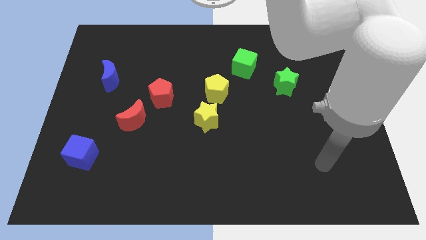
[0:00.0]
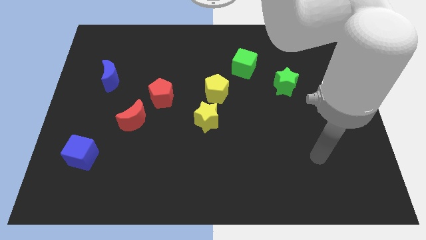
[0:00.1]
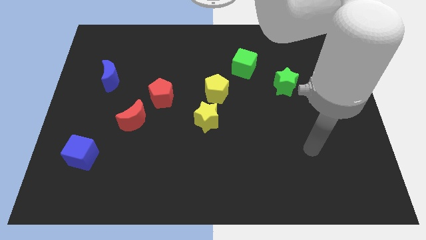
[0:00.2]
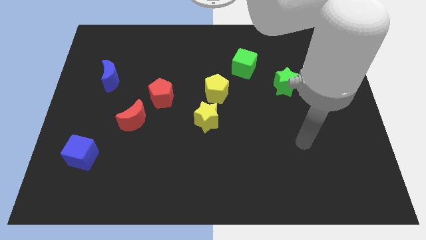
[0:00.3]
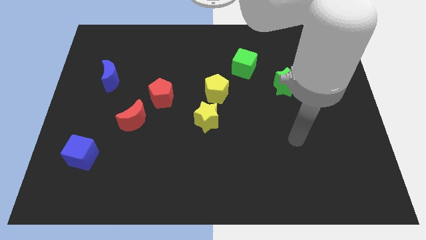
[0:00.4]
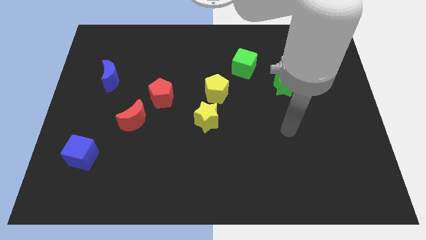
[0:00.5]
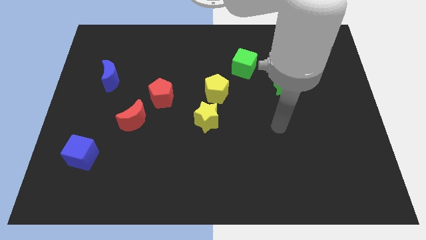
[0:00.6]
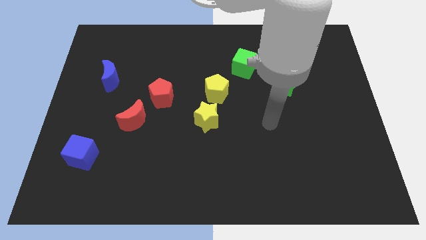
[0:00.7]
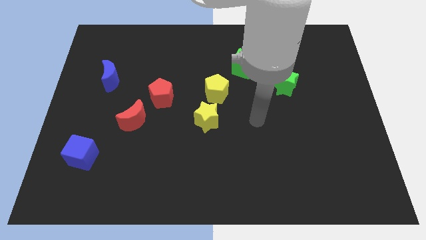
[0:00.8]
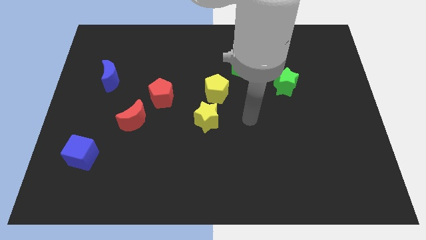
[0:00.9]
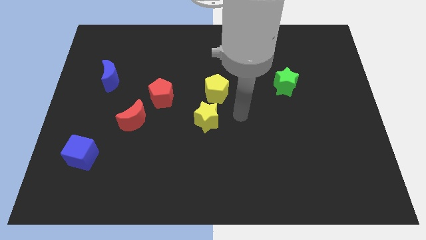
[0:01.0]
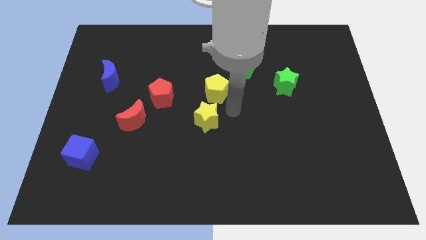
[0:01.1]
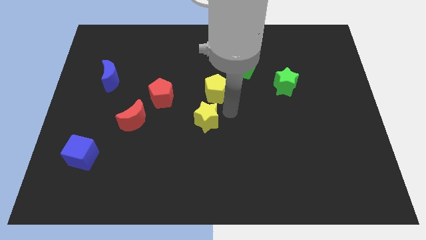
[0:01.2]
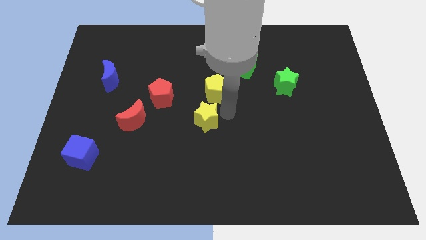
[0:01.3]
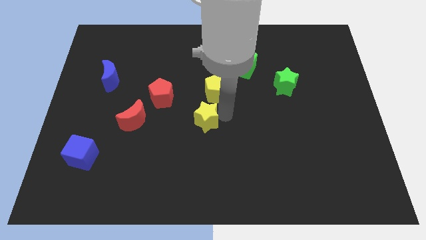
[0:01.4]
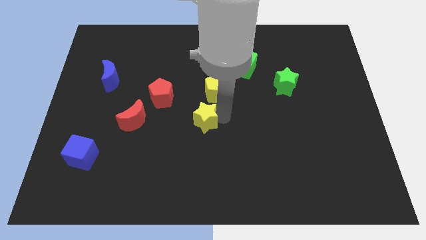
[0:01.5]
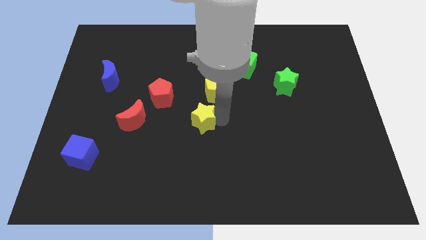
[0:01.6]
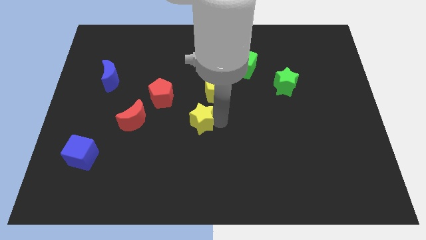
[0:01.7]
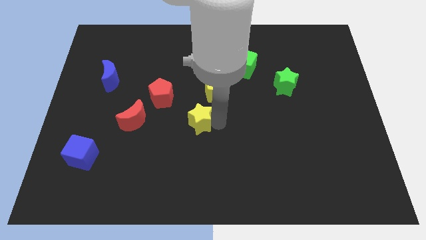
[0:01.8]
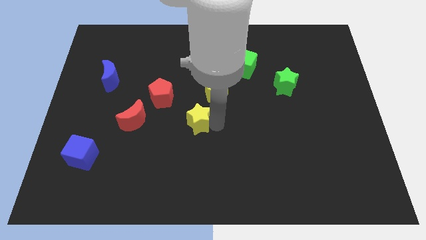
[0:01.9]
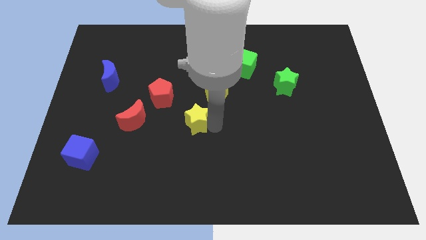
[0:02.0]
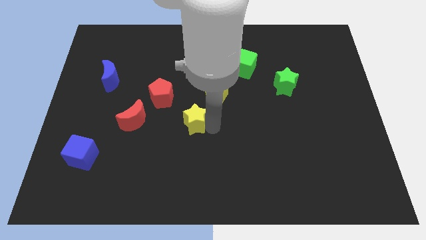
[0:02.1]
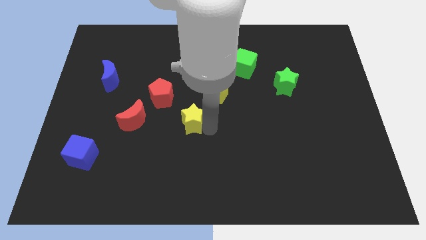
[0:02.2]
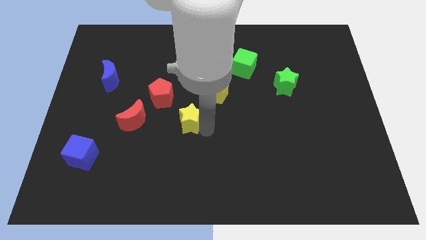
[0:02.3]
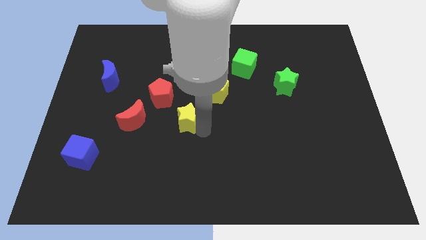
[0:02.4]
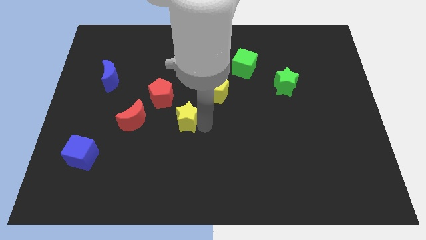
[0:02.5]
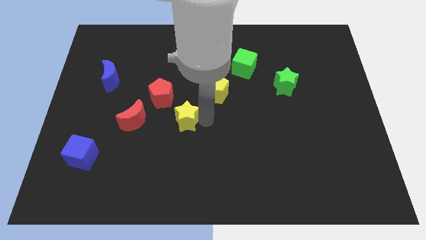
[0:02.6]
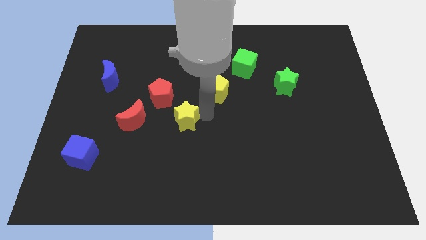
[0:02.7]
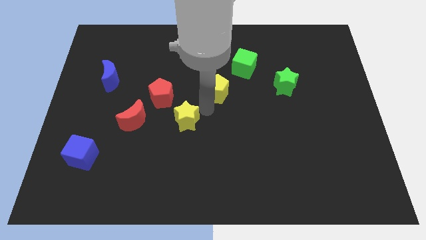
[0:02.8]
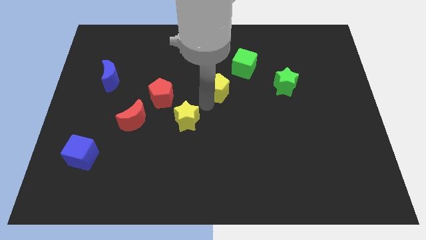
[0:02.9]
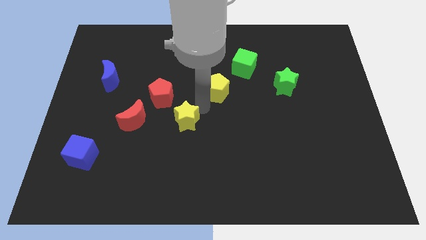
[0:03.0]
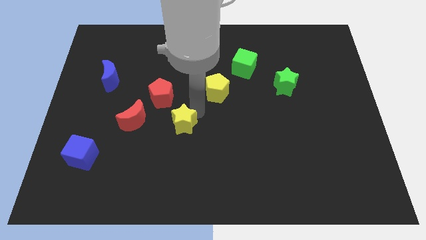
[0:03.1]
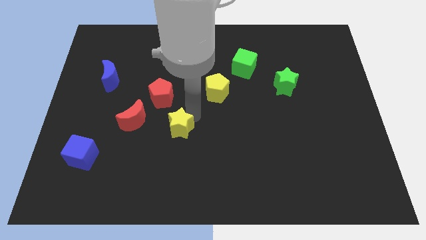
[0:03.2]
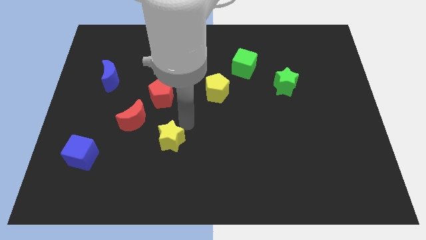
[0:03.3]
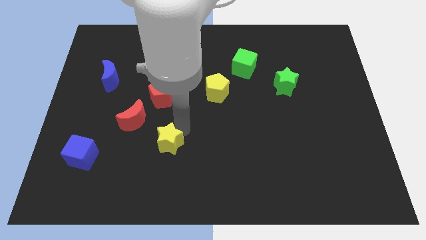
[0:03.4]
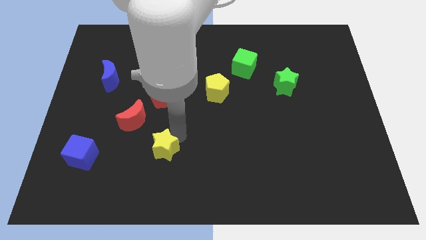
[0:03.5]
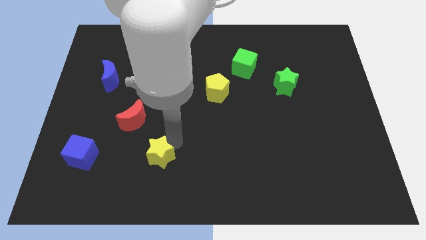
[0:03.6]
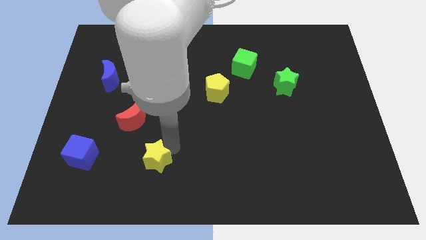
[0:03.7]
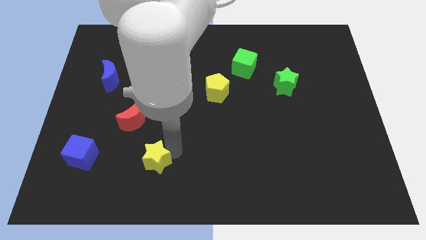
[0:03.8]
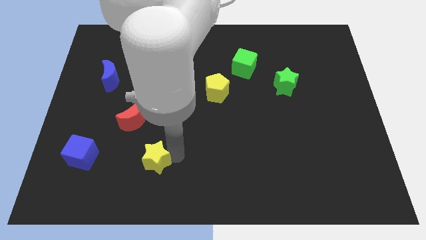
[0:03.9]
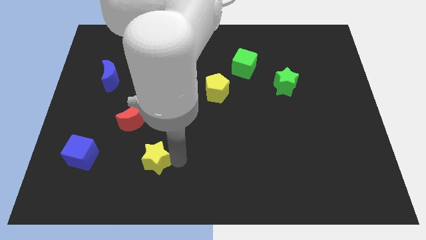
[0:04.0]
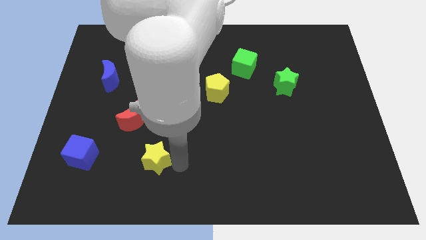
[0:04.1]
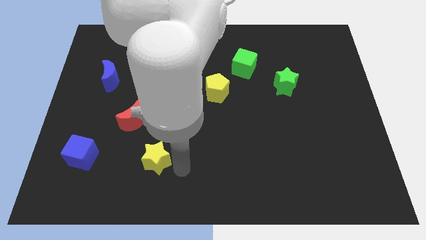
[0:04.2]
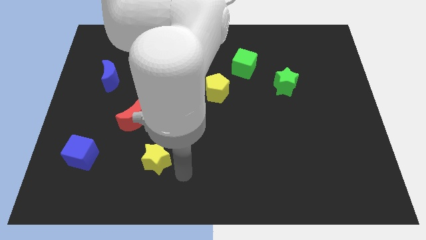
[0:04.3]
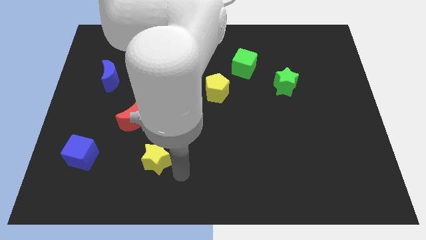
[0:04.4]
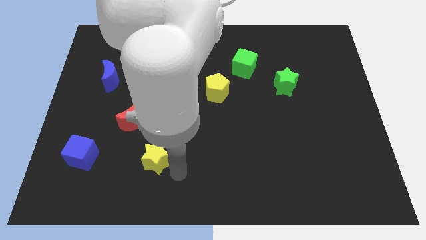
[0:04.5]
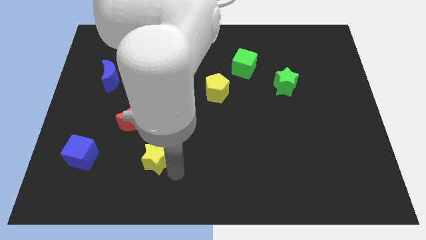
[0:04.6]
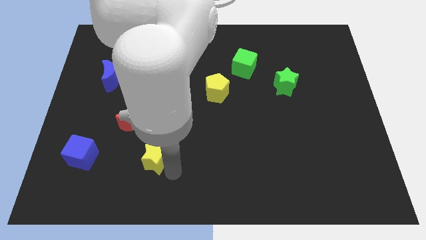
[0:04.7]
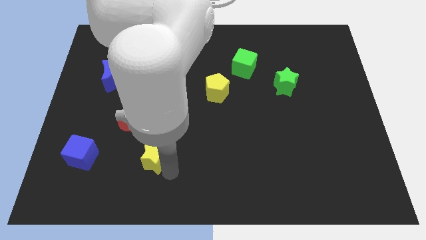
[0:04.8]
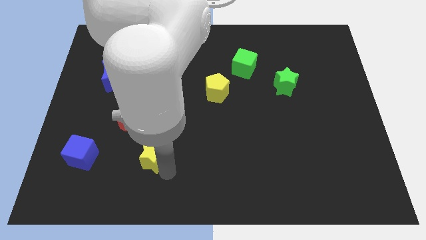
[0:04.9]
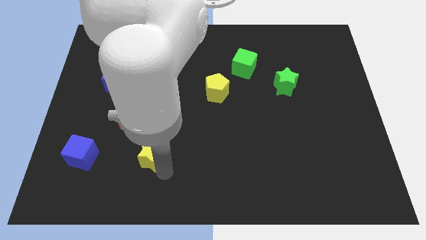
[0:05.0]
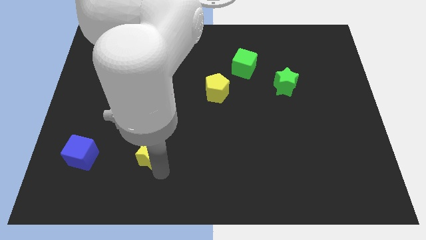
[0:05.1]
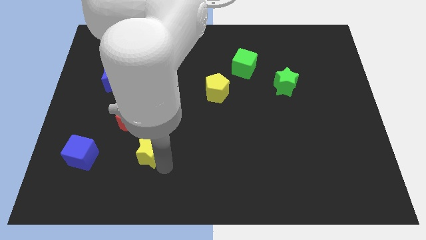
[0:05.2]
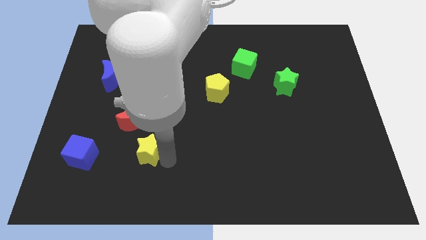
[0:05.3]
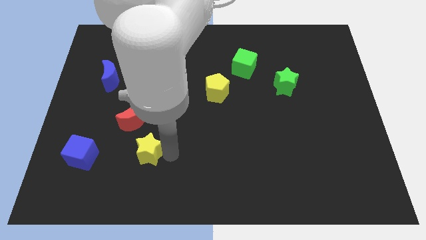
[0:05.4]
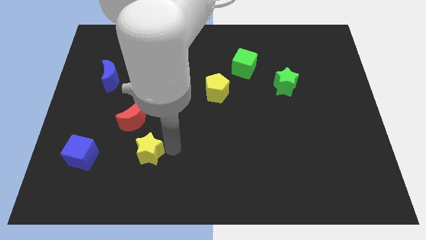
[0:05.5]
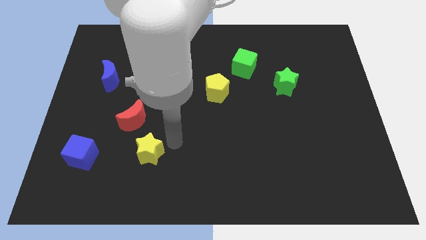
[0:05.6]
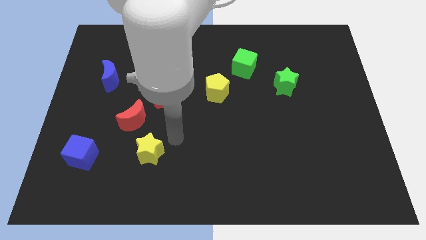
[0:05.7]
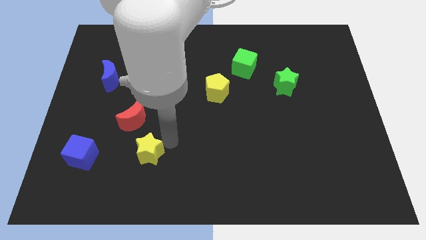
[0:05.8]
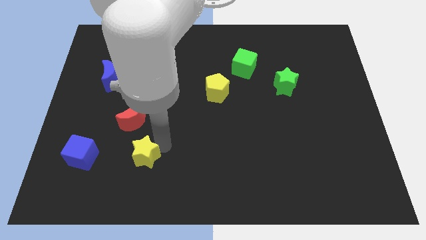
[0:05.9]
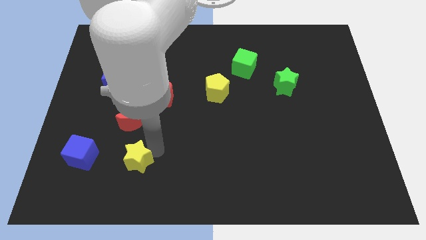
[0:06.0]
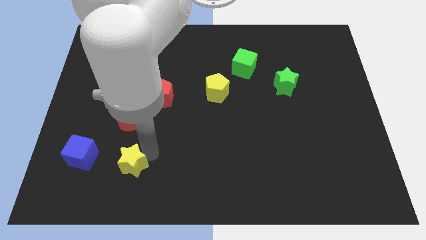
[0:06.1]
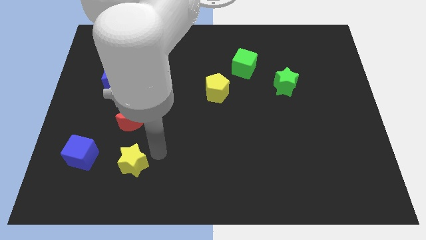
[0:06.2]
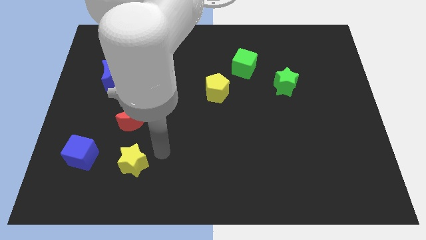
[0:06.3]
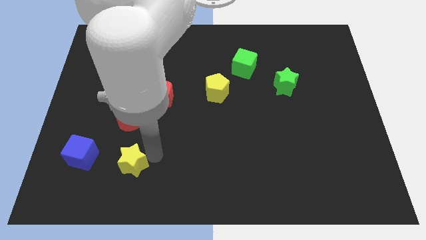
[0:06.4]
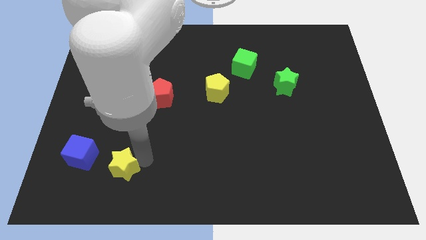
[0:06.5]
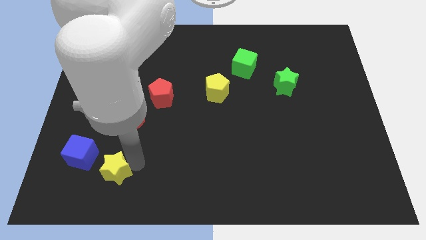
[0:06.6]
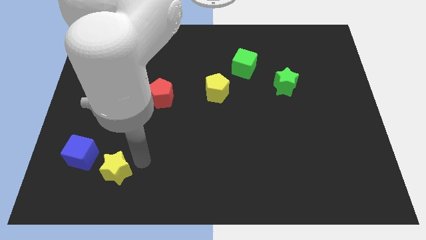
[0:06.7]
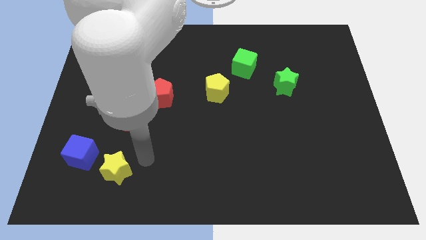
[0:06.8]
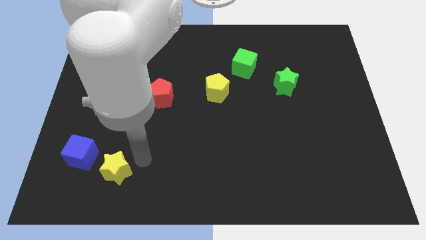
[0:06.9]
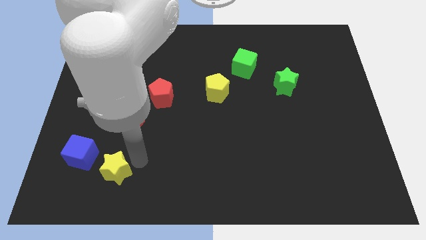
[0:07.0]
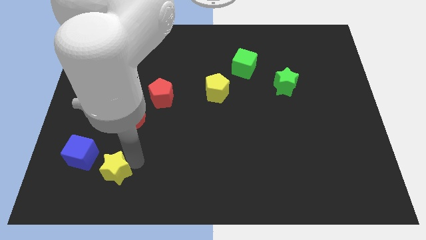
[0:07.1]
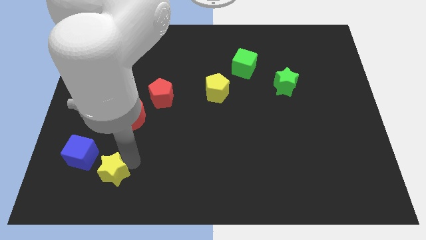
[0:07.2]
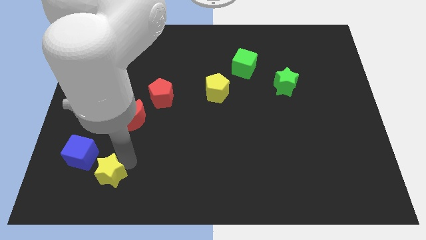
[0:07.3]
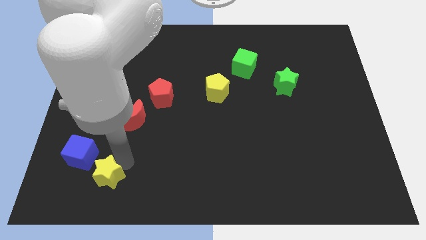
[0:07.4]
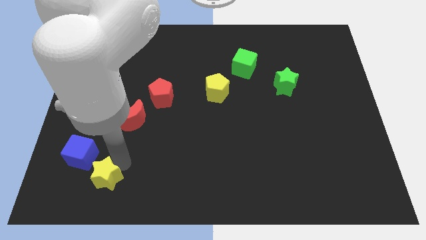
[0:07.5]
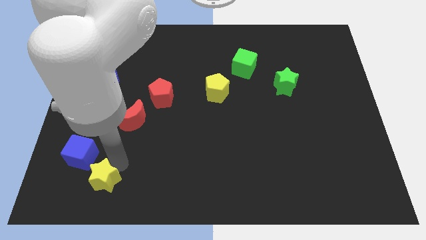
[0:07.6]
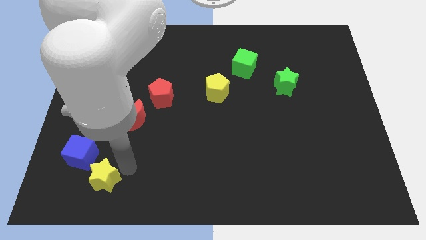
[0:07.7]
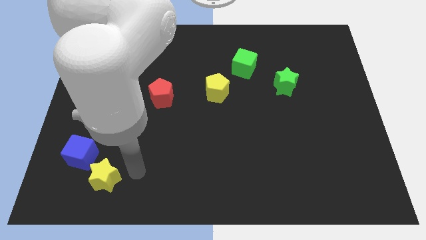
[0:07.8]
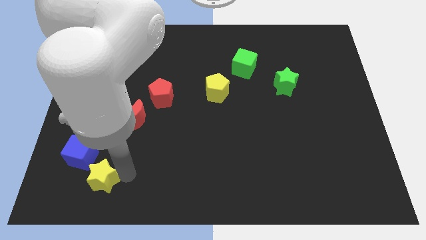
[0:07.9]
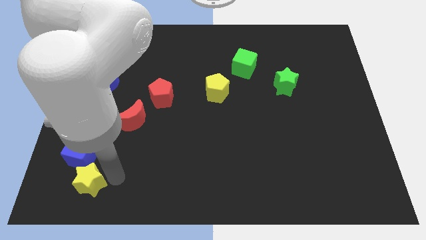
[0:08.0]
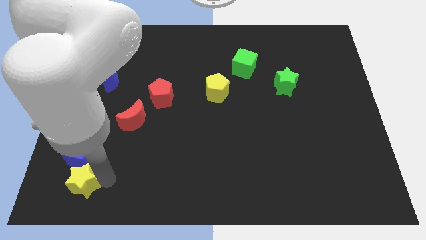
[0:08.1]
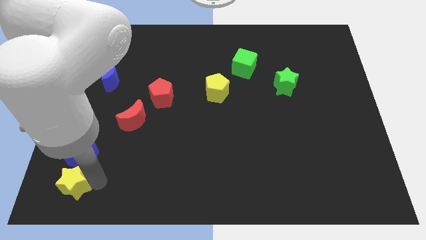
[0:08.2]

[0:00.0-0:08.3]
put the yellow star to the bottom left corner
